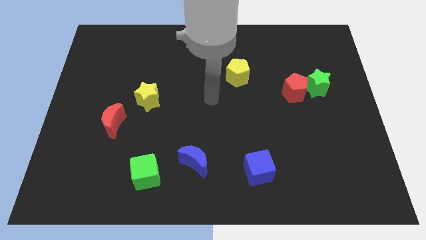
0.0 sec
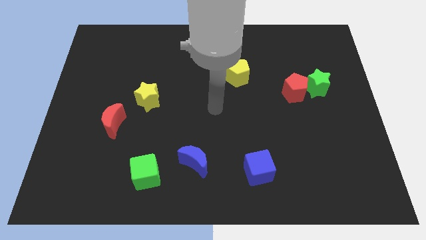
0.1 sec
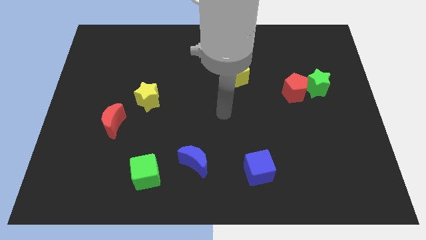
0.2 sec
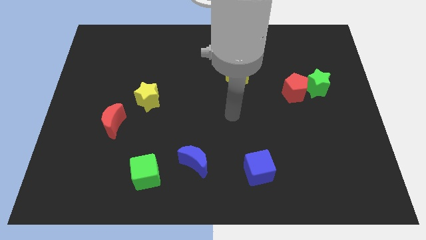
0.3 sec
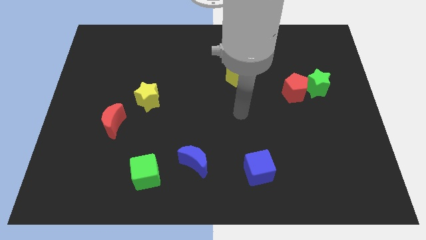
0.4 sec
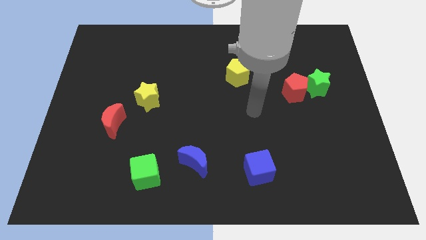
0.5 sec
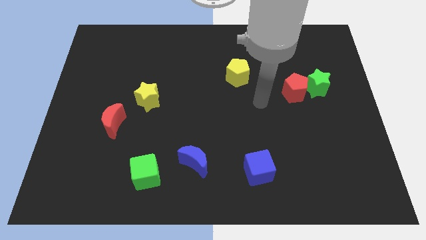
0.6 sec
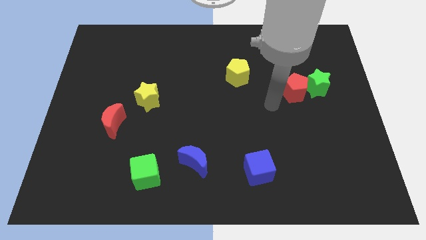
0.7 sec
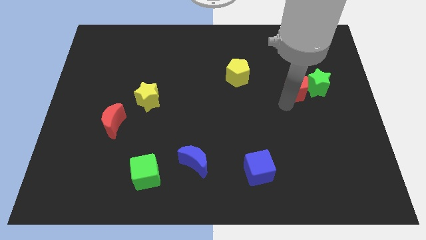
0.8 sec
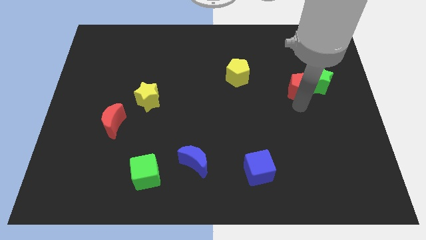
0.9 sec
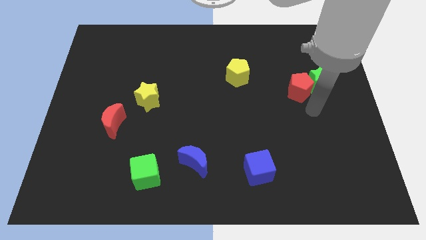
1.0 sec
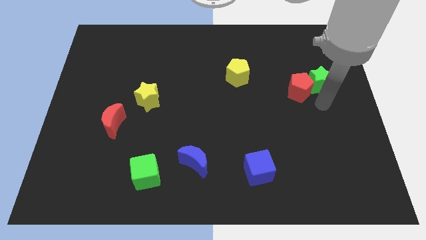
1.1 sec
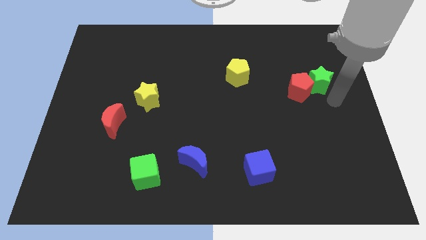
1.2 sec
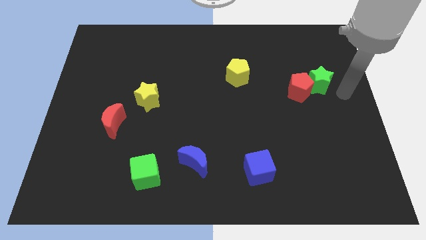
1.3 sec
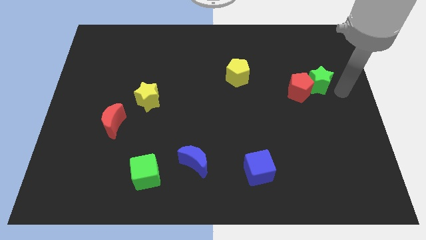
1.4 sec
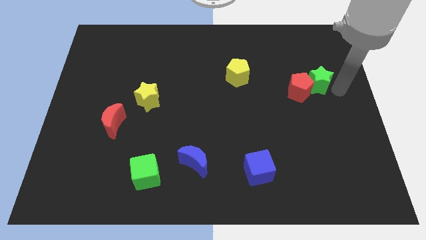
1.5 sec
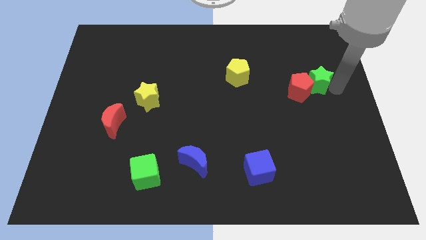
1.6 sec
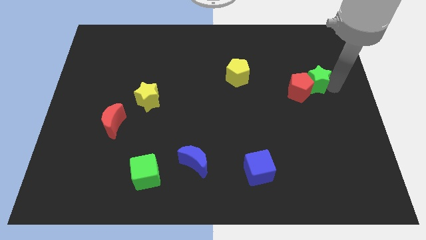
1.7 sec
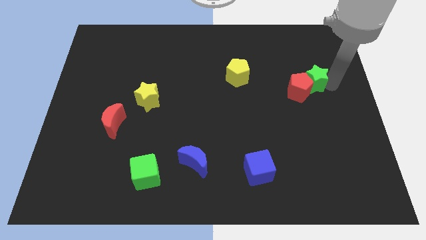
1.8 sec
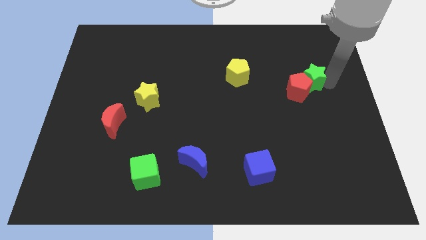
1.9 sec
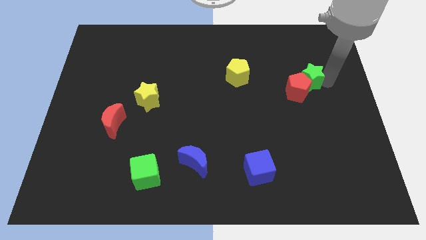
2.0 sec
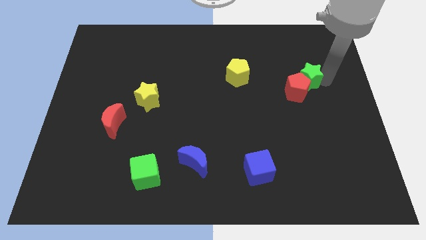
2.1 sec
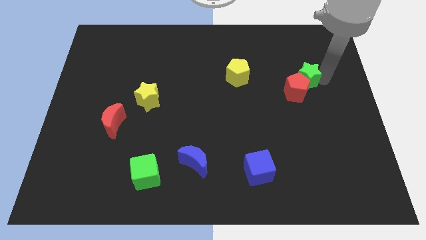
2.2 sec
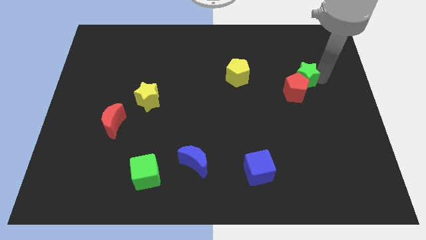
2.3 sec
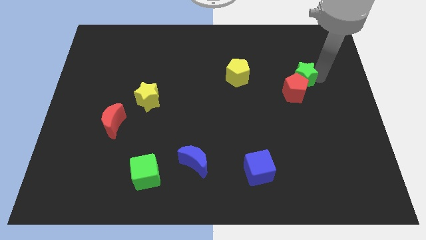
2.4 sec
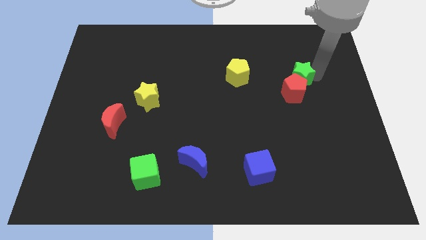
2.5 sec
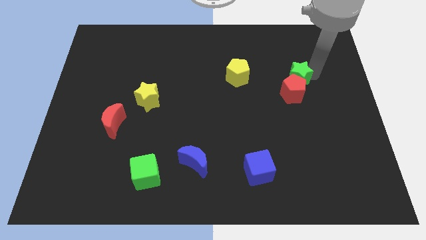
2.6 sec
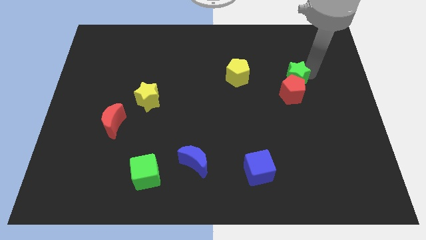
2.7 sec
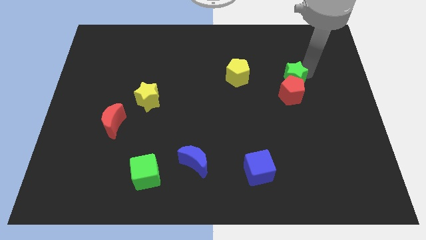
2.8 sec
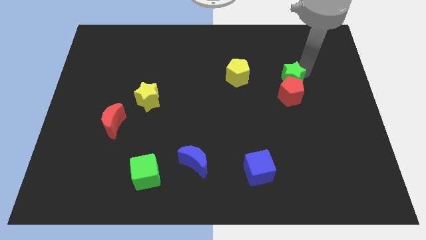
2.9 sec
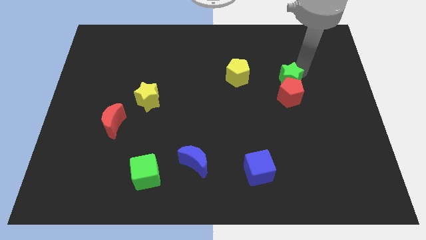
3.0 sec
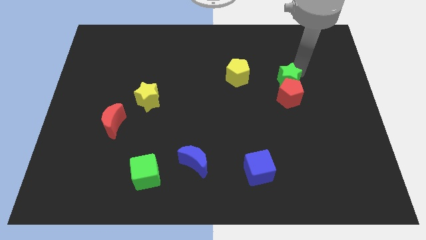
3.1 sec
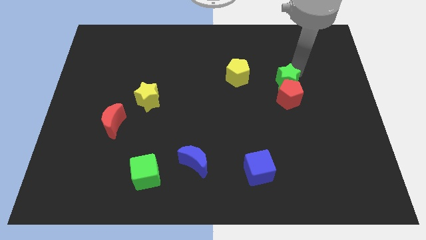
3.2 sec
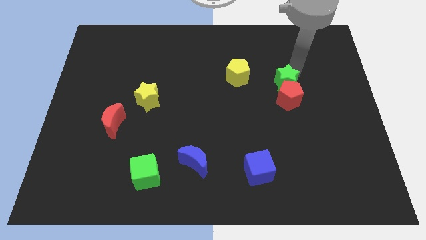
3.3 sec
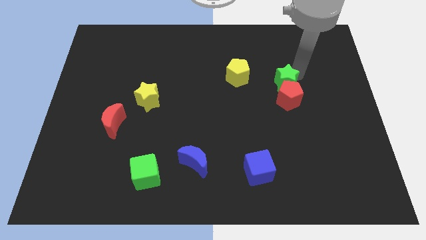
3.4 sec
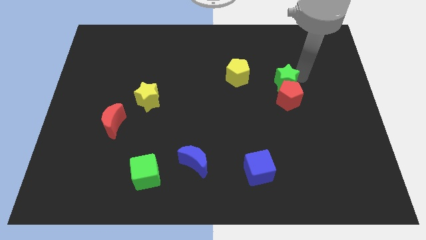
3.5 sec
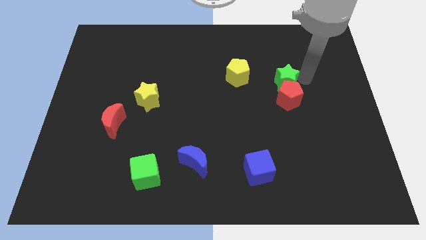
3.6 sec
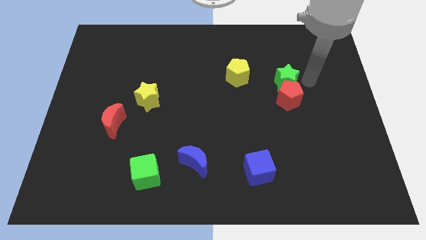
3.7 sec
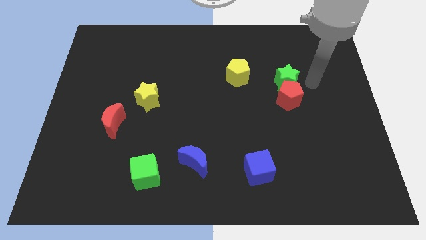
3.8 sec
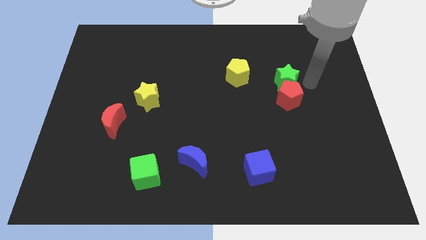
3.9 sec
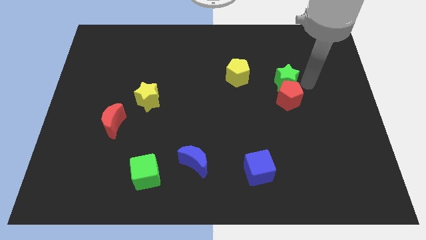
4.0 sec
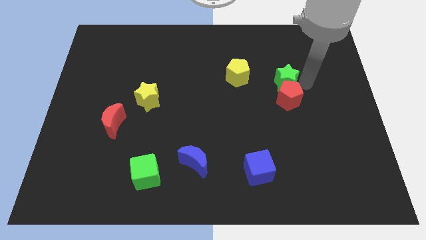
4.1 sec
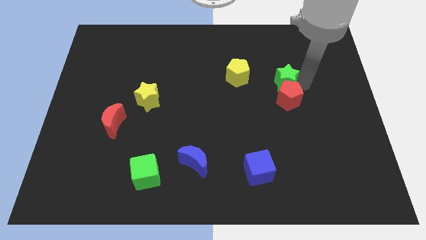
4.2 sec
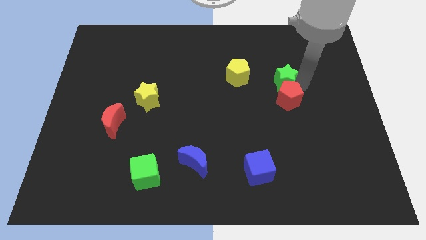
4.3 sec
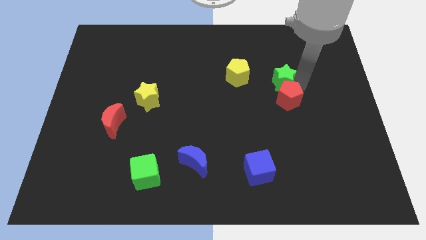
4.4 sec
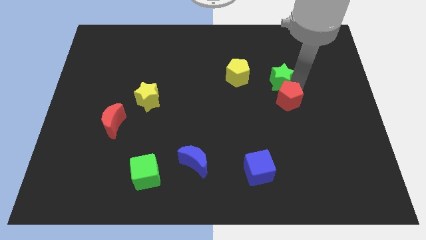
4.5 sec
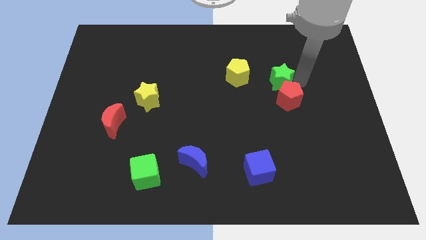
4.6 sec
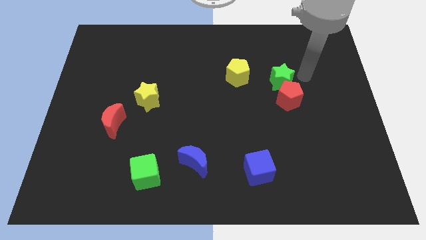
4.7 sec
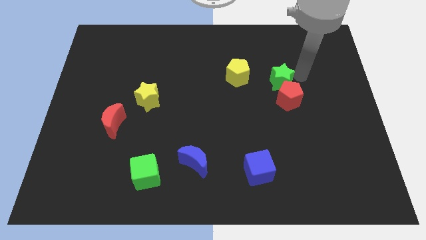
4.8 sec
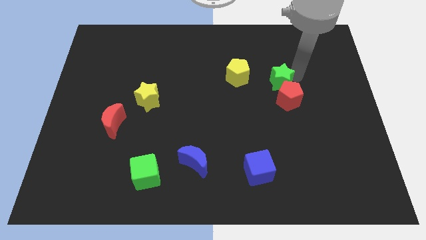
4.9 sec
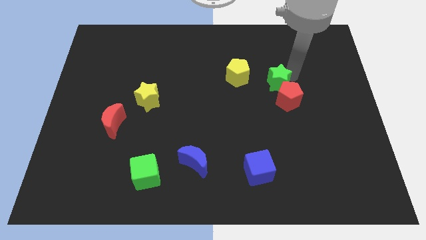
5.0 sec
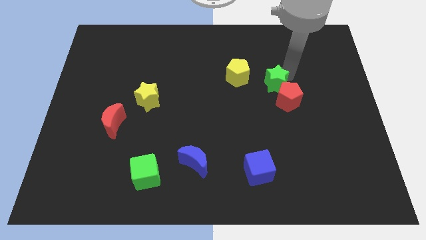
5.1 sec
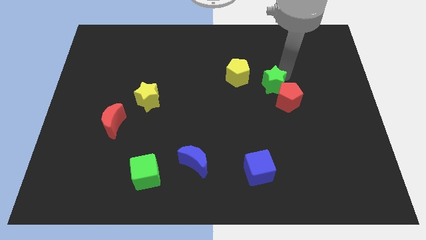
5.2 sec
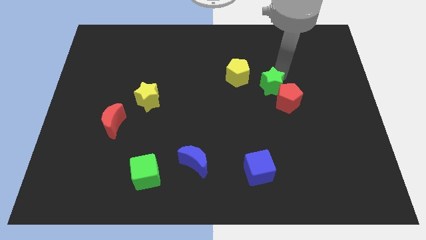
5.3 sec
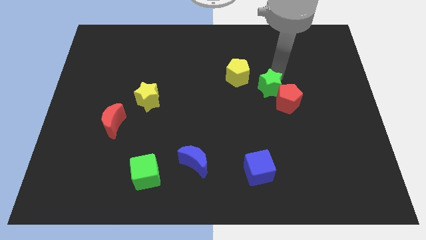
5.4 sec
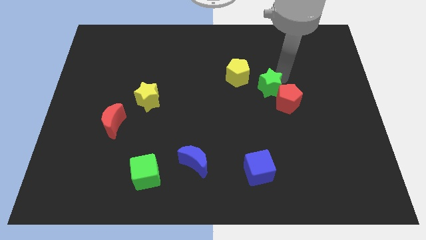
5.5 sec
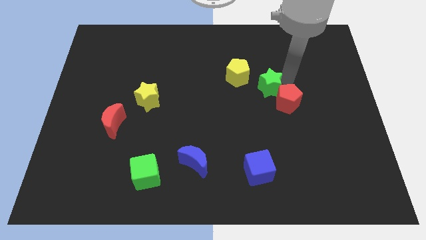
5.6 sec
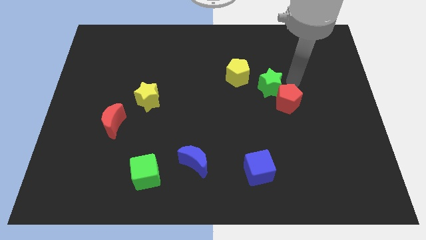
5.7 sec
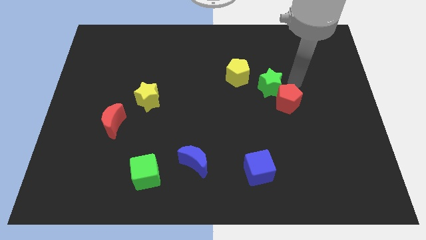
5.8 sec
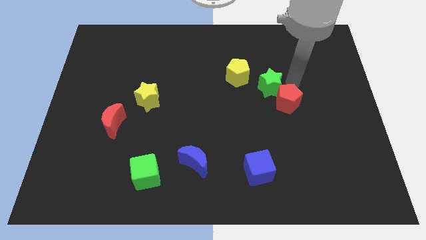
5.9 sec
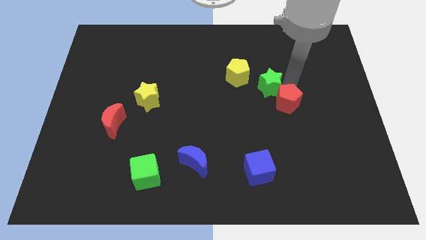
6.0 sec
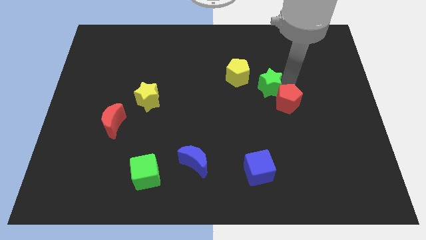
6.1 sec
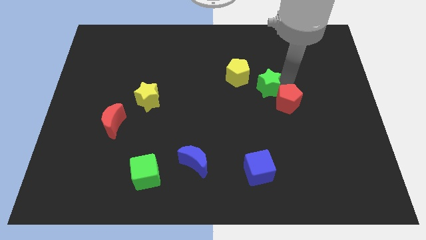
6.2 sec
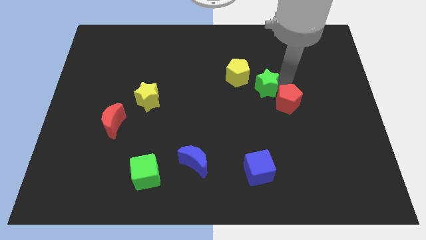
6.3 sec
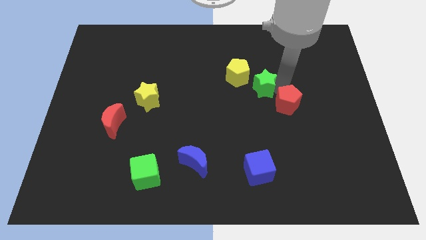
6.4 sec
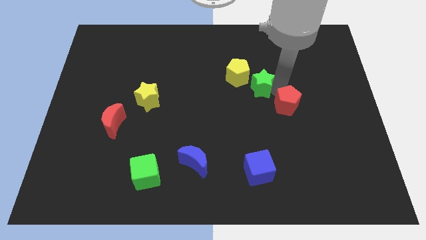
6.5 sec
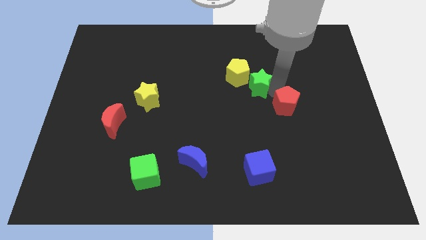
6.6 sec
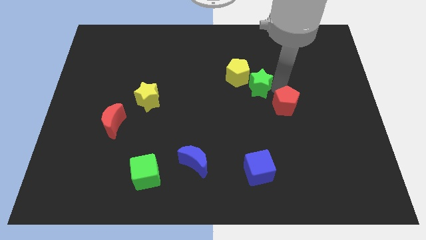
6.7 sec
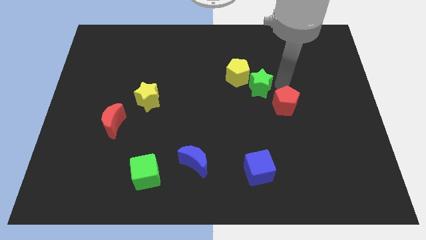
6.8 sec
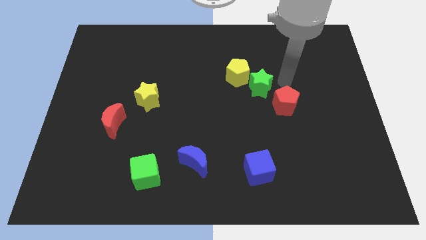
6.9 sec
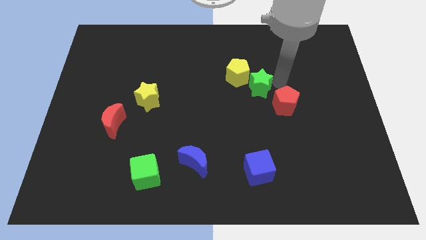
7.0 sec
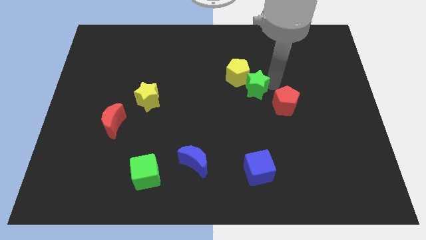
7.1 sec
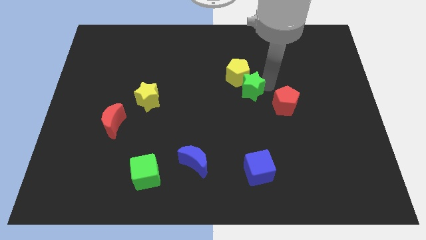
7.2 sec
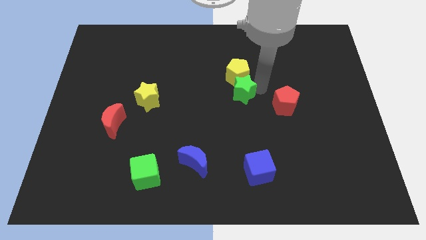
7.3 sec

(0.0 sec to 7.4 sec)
move the green star to the bottom left side of the yellow pentagon
